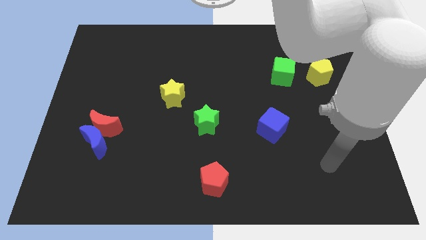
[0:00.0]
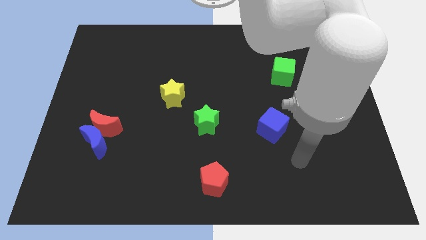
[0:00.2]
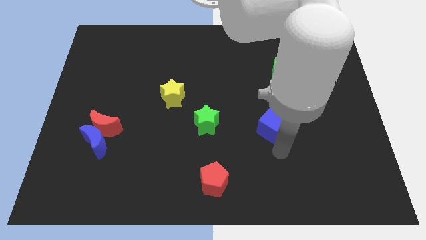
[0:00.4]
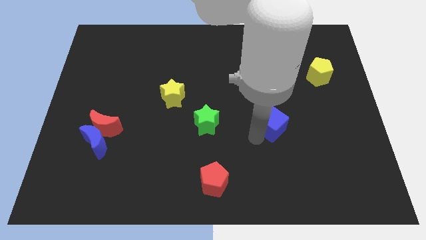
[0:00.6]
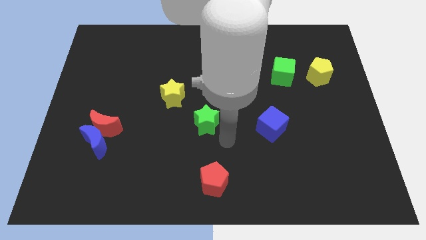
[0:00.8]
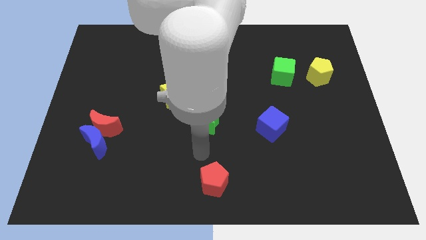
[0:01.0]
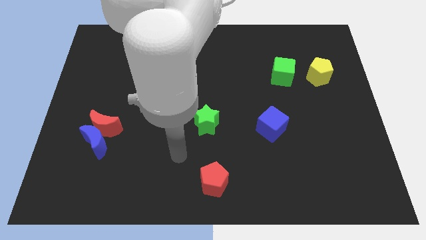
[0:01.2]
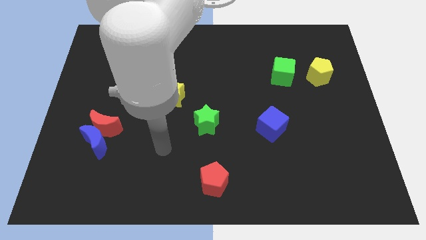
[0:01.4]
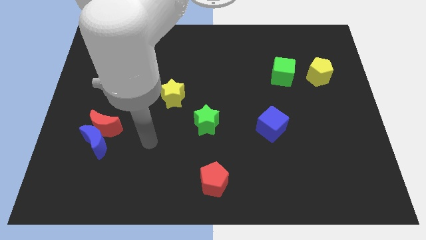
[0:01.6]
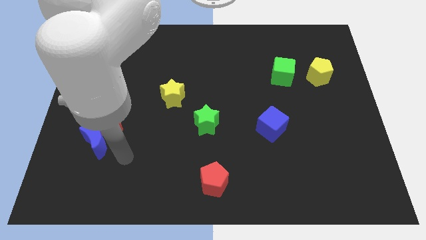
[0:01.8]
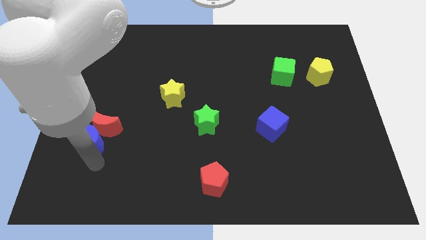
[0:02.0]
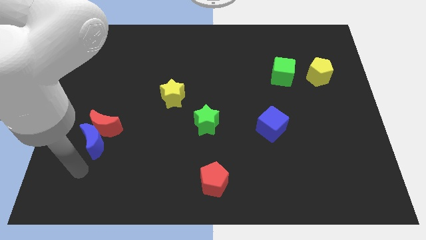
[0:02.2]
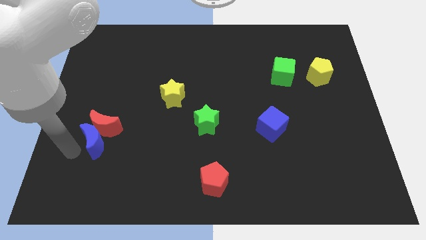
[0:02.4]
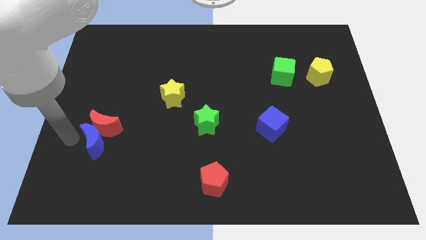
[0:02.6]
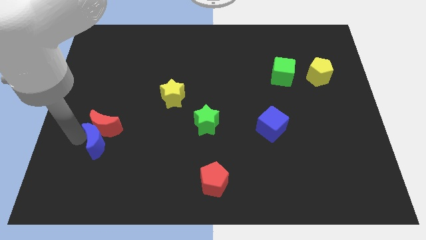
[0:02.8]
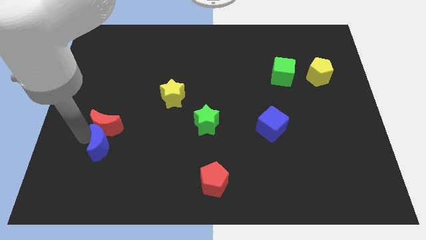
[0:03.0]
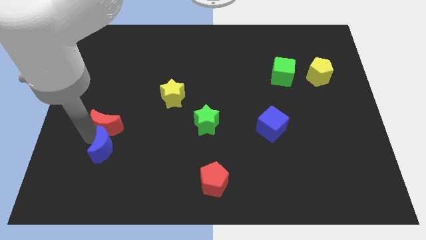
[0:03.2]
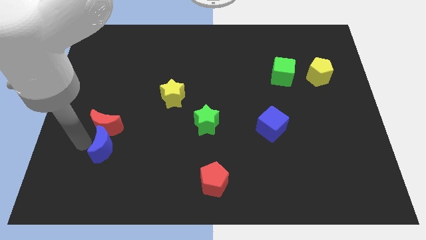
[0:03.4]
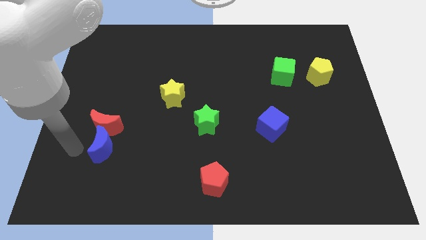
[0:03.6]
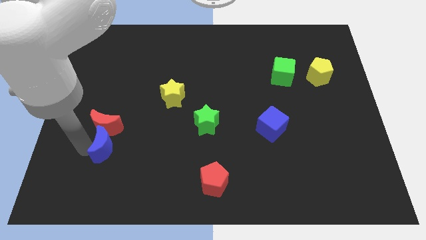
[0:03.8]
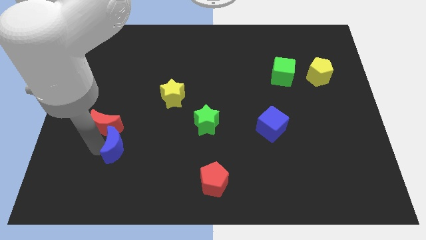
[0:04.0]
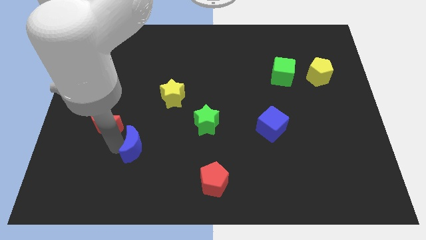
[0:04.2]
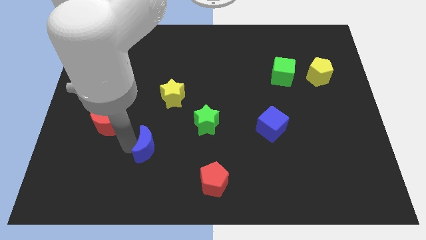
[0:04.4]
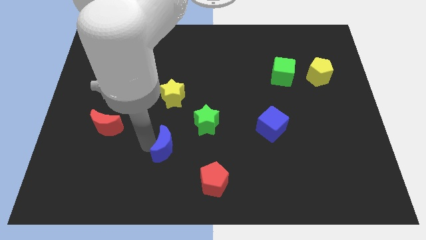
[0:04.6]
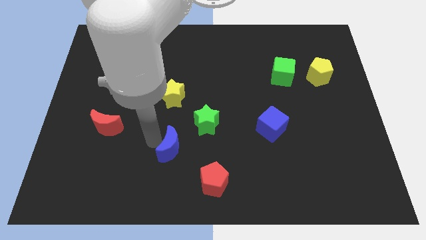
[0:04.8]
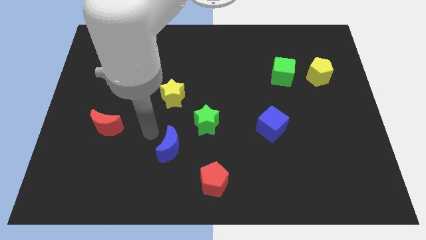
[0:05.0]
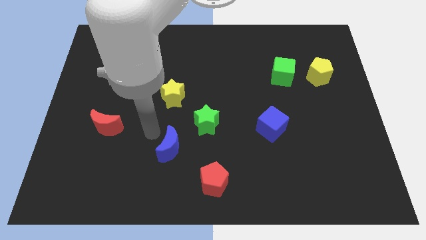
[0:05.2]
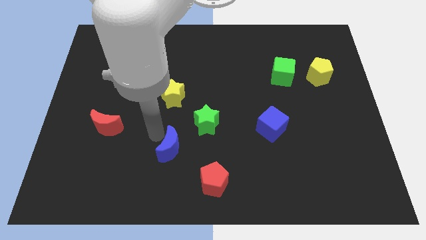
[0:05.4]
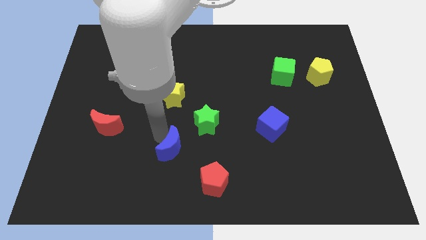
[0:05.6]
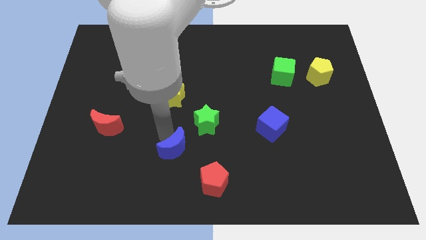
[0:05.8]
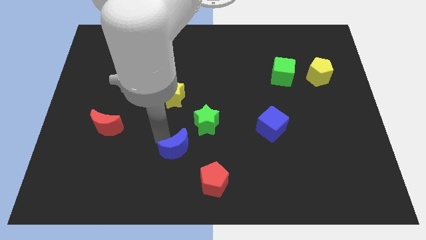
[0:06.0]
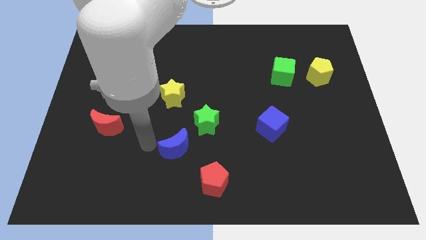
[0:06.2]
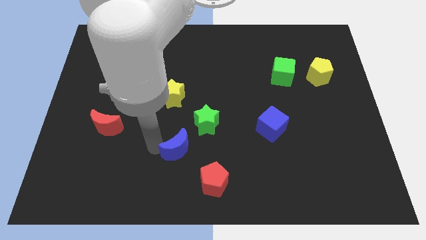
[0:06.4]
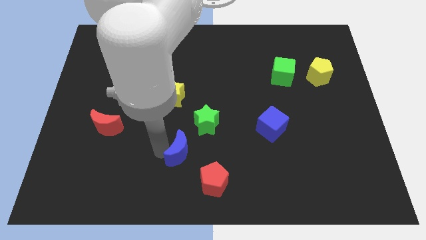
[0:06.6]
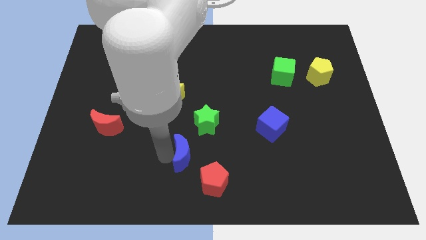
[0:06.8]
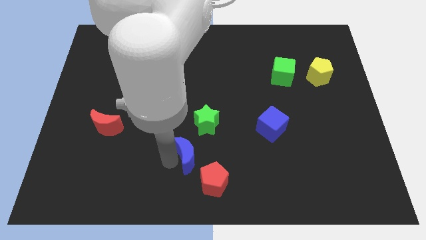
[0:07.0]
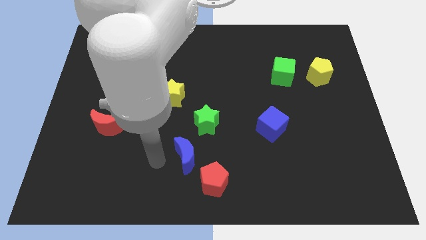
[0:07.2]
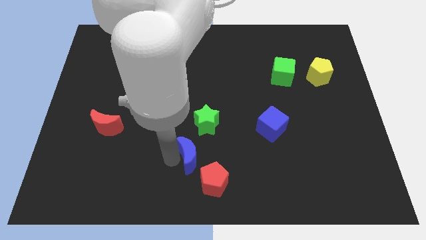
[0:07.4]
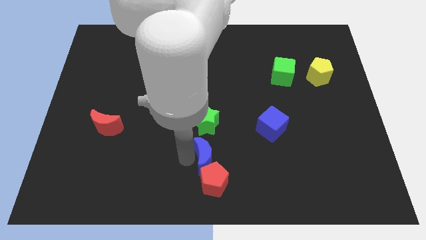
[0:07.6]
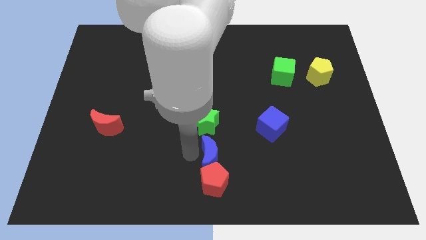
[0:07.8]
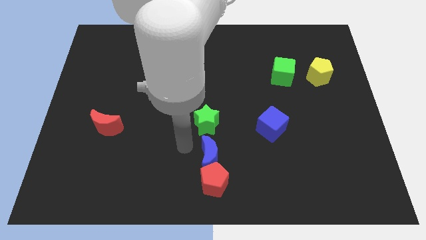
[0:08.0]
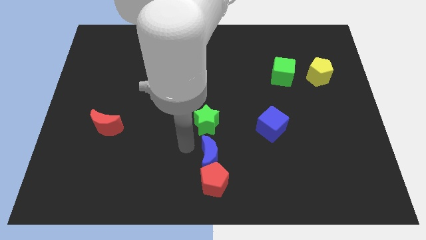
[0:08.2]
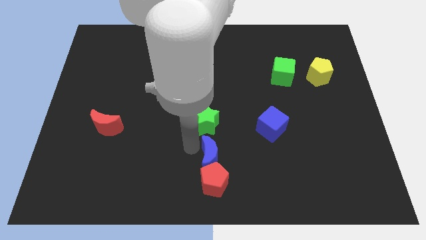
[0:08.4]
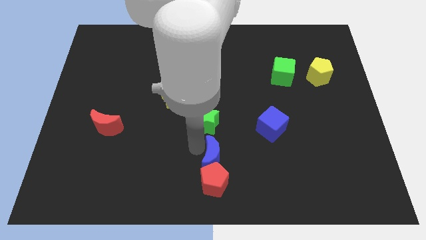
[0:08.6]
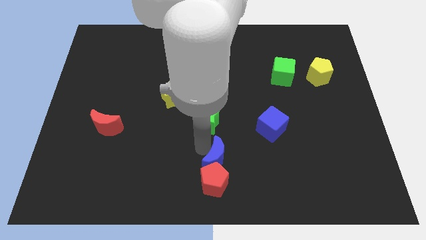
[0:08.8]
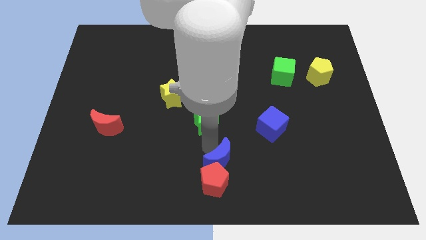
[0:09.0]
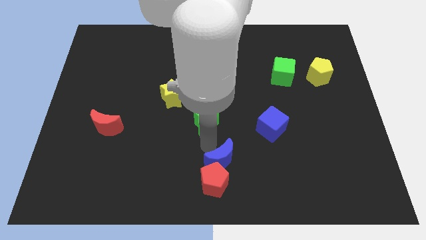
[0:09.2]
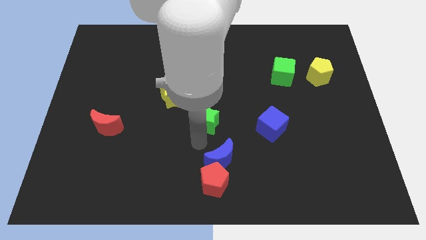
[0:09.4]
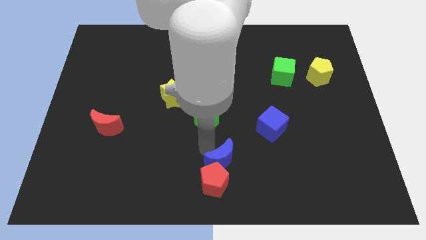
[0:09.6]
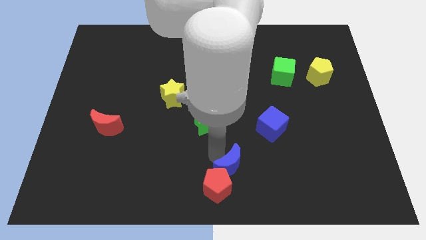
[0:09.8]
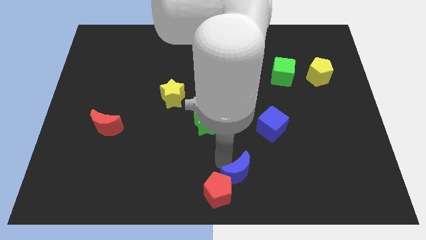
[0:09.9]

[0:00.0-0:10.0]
slide the blue moon to the right side of the red pentagon

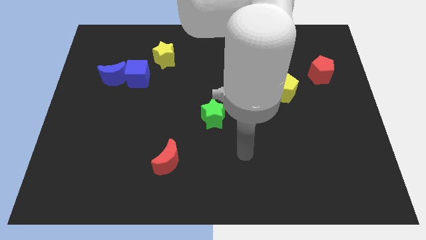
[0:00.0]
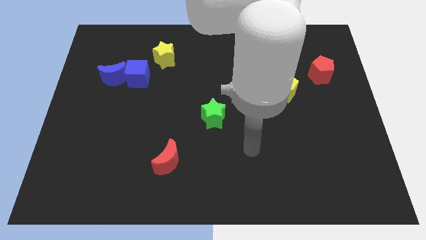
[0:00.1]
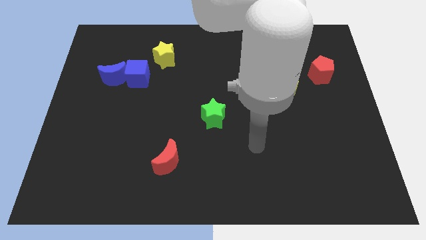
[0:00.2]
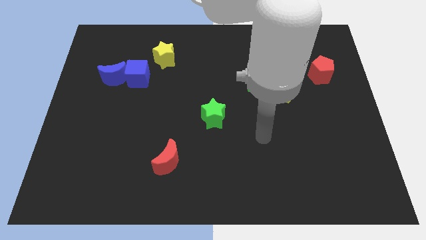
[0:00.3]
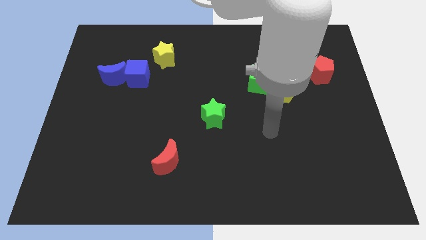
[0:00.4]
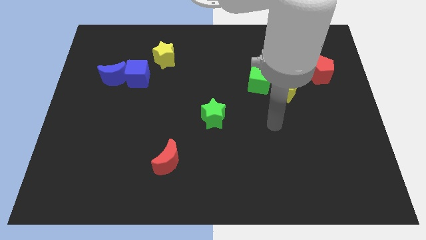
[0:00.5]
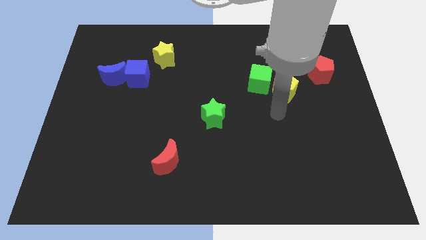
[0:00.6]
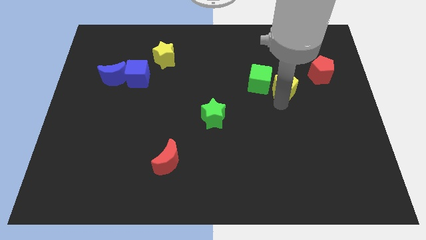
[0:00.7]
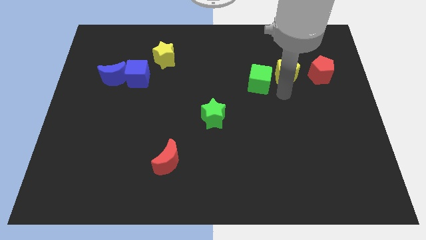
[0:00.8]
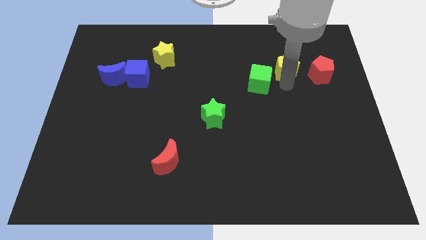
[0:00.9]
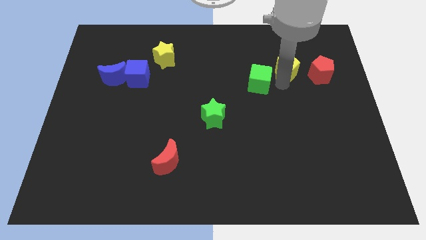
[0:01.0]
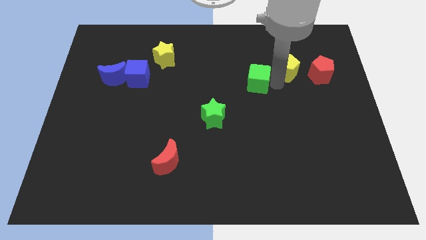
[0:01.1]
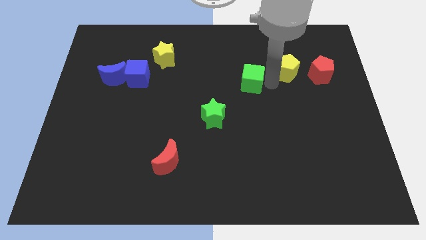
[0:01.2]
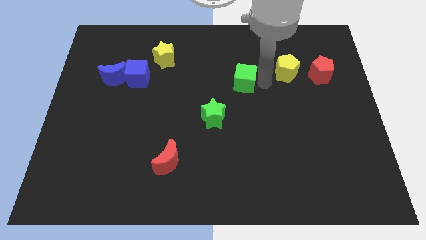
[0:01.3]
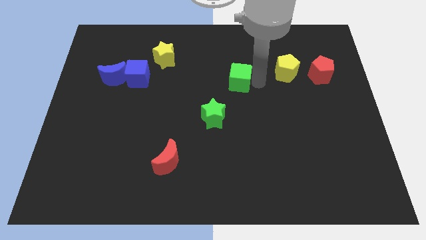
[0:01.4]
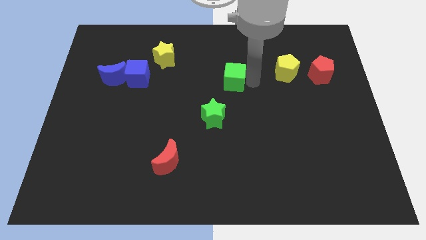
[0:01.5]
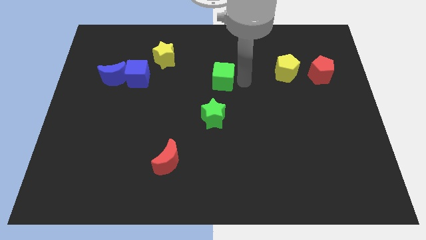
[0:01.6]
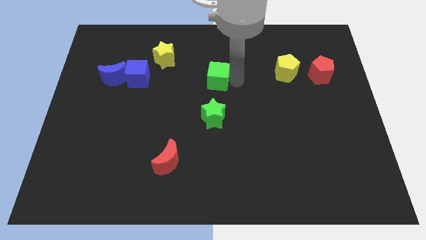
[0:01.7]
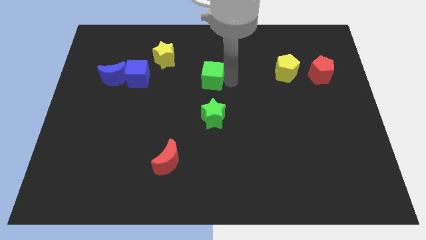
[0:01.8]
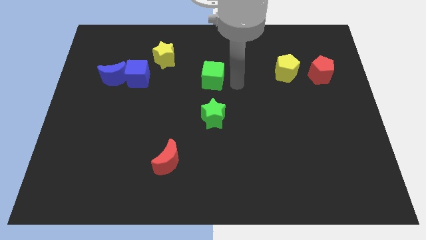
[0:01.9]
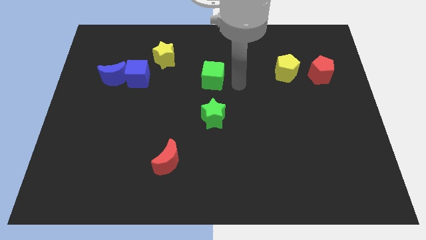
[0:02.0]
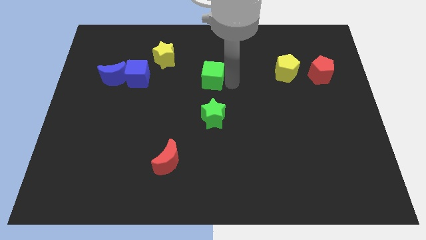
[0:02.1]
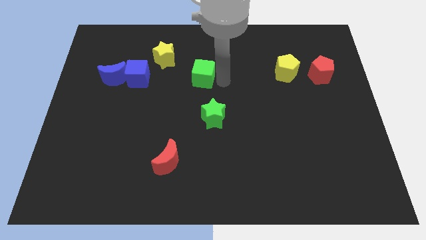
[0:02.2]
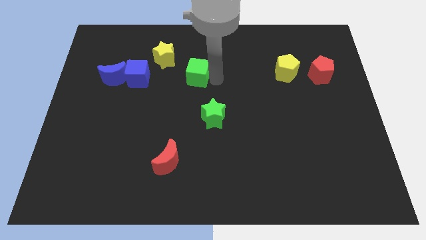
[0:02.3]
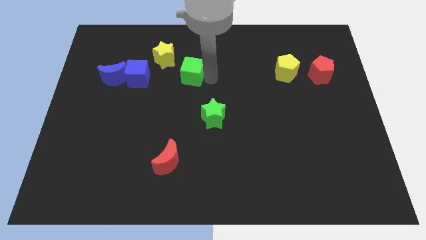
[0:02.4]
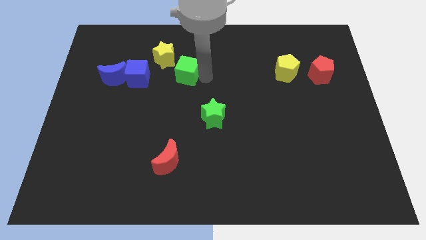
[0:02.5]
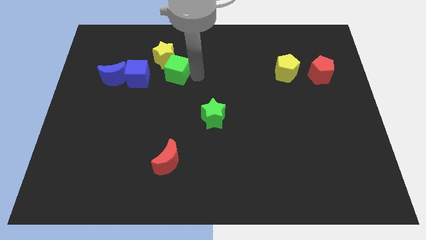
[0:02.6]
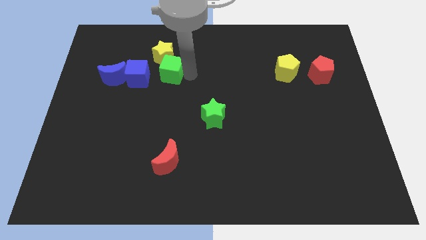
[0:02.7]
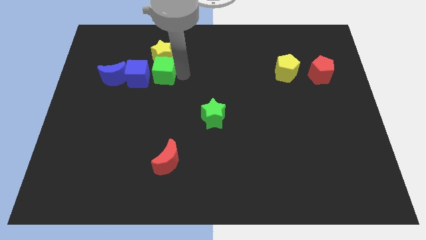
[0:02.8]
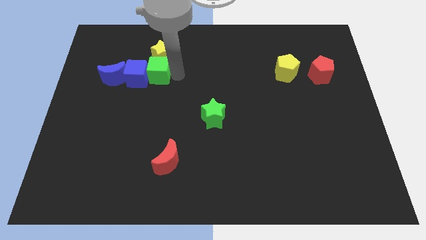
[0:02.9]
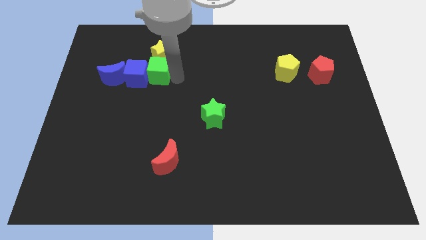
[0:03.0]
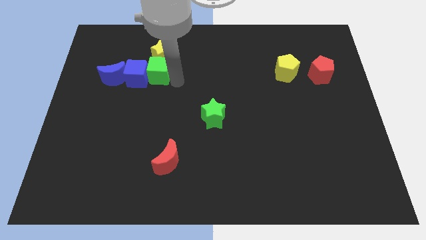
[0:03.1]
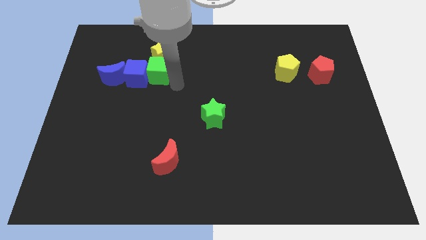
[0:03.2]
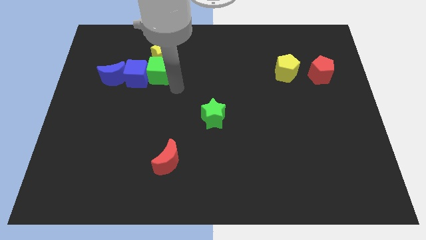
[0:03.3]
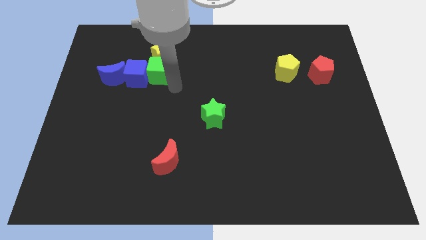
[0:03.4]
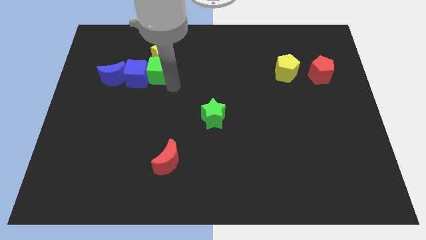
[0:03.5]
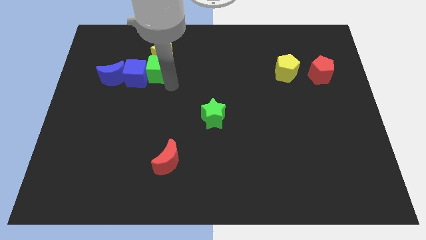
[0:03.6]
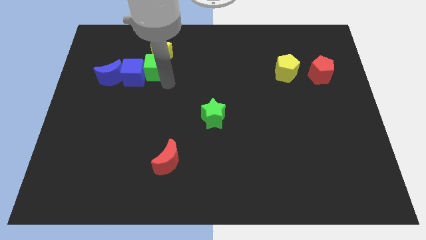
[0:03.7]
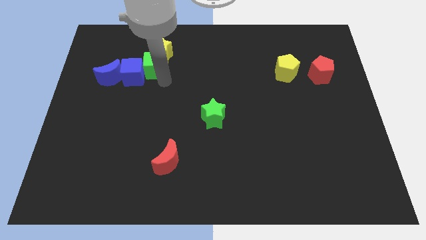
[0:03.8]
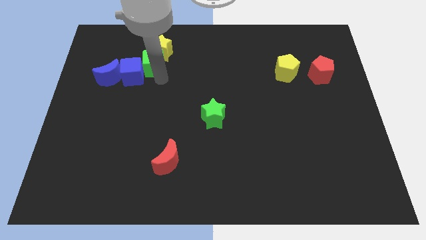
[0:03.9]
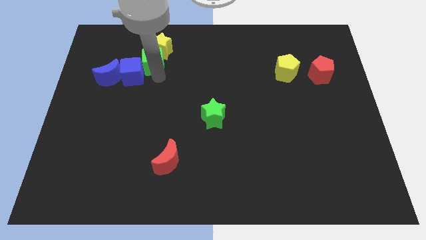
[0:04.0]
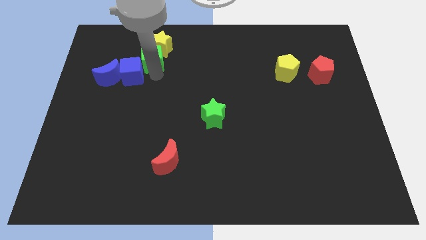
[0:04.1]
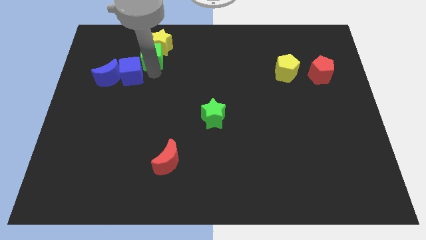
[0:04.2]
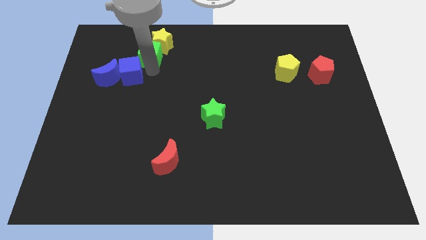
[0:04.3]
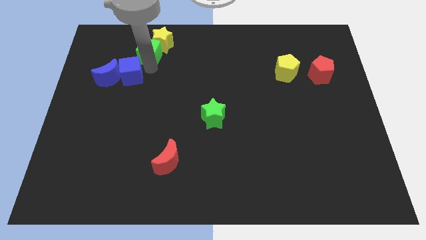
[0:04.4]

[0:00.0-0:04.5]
slide the green cube left of the yellow star
